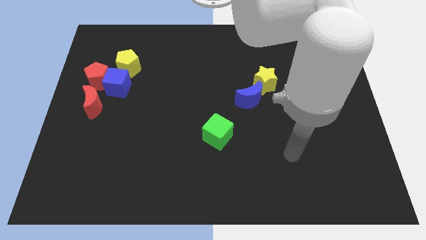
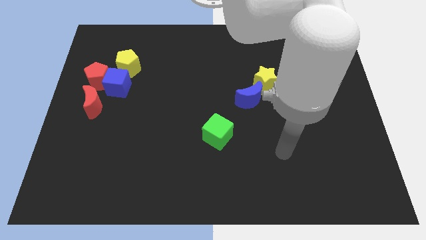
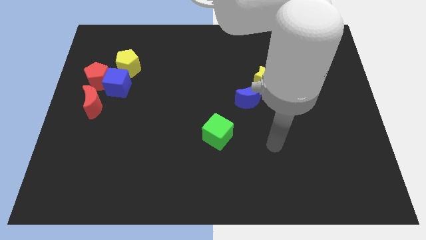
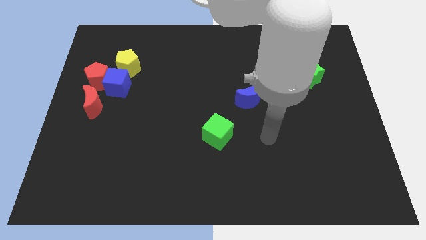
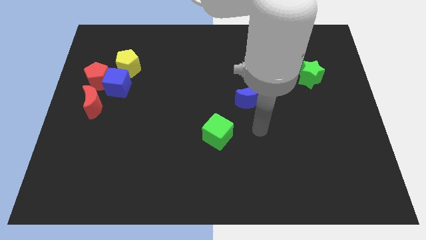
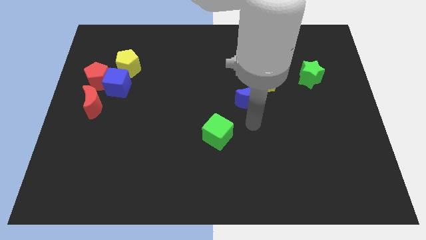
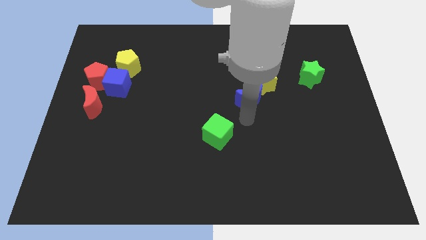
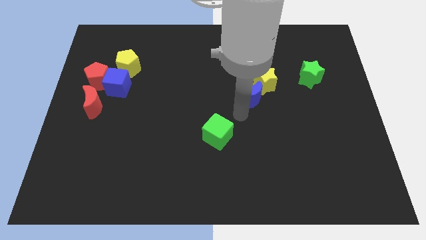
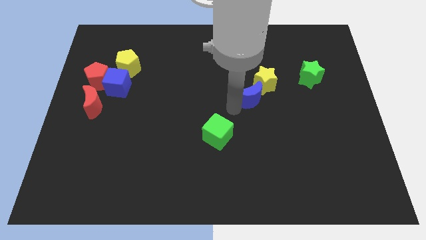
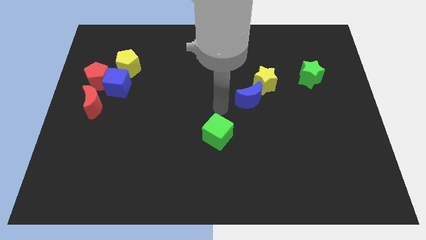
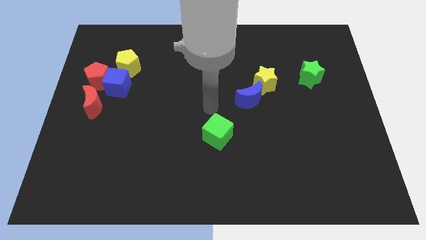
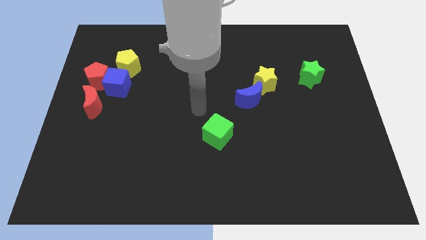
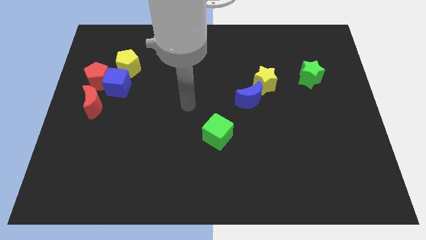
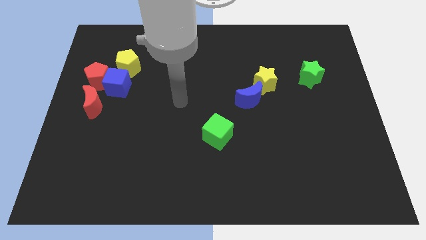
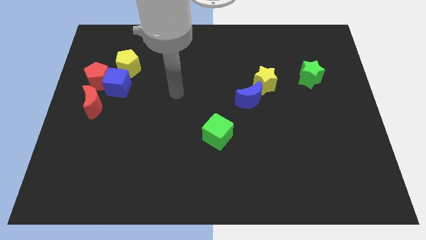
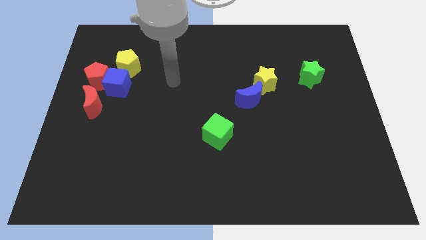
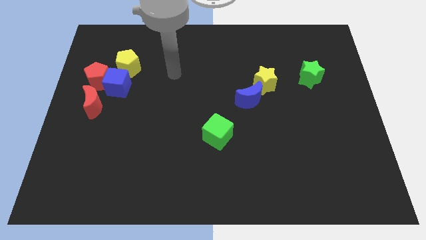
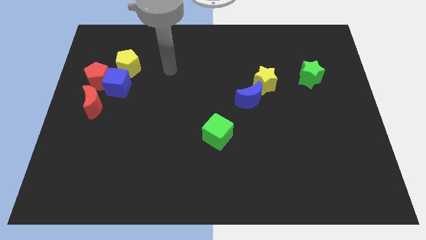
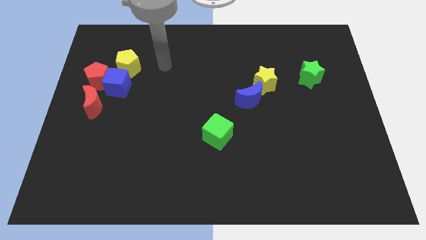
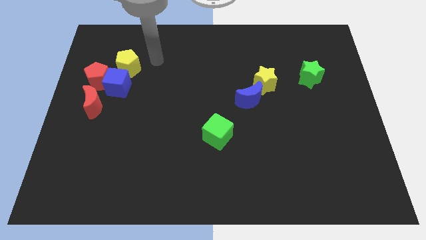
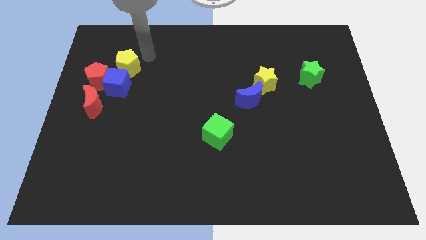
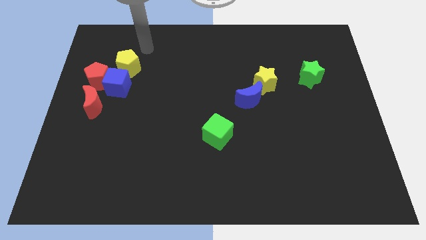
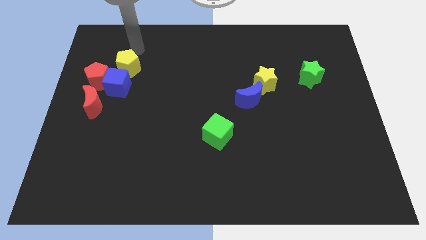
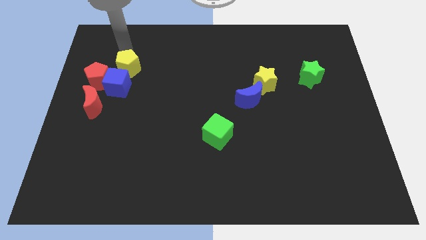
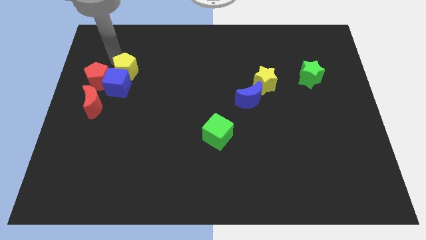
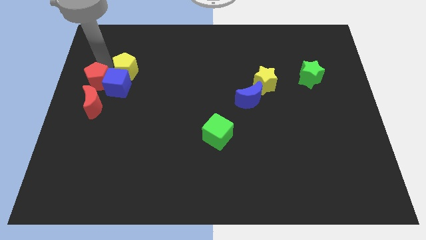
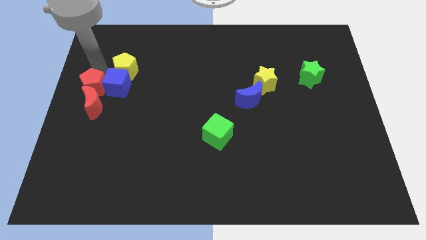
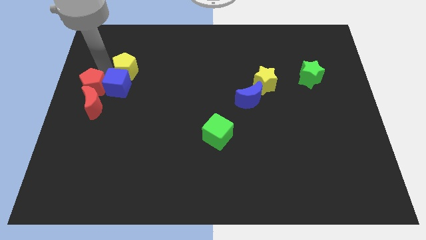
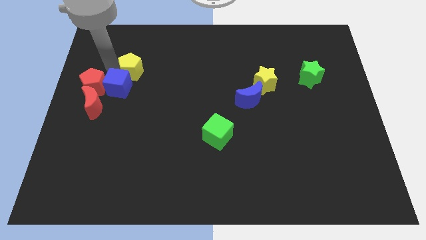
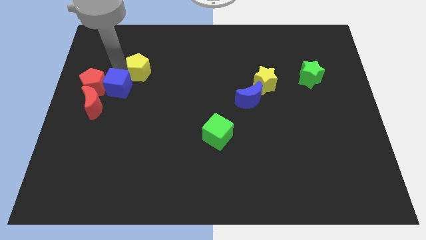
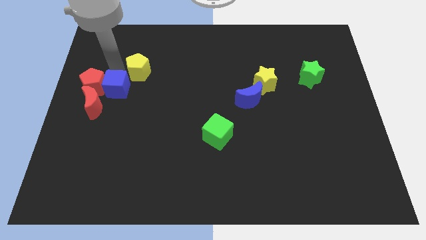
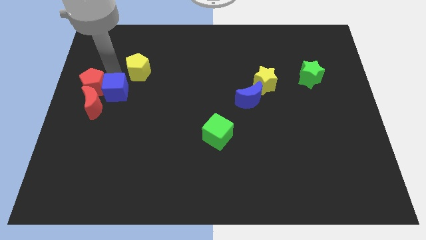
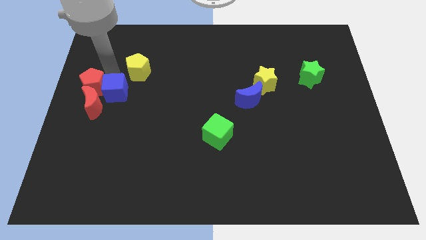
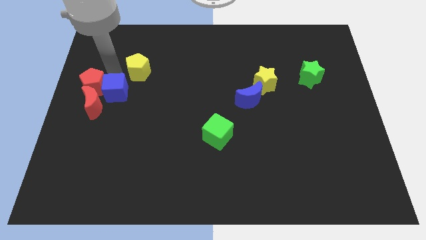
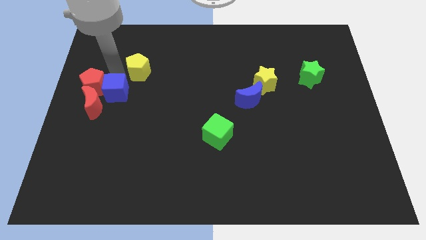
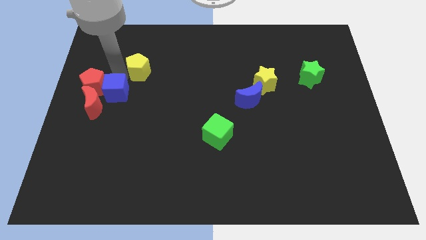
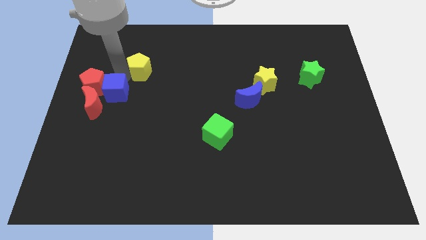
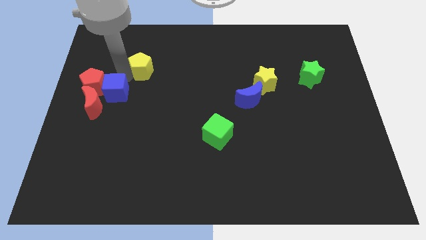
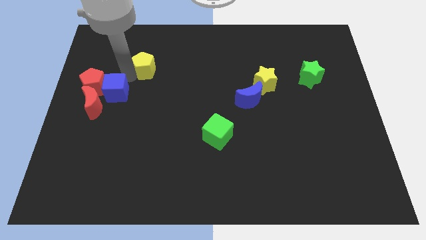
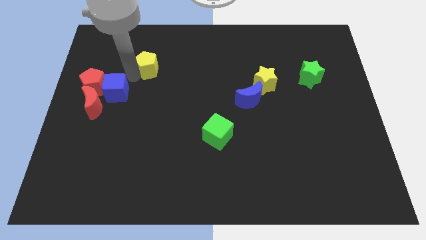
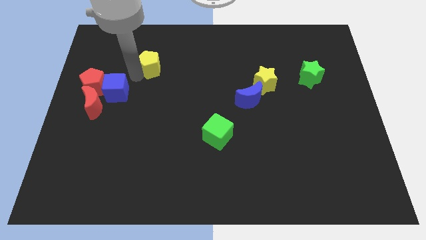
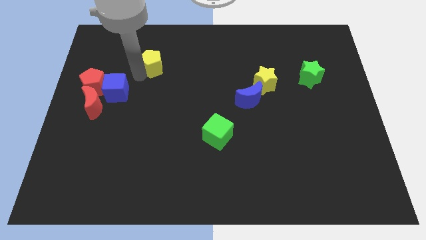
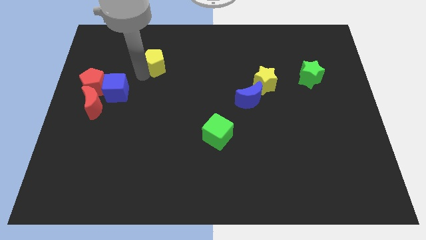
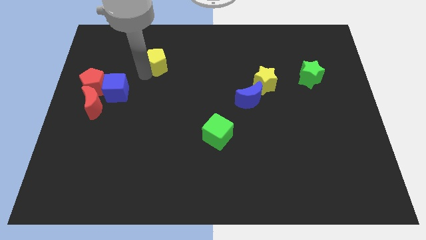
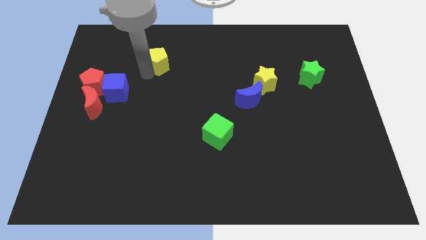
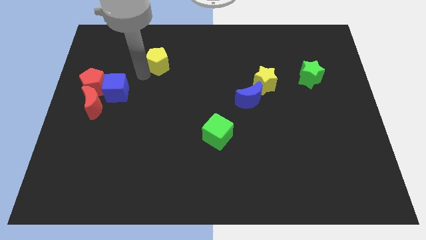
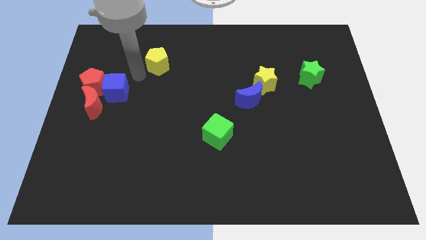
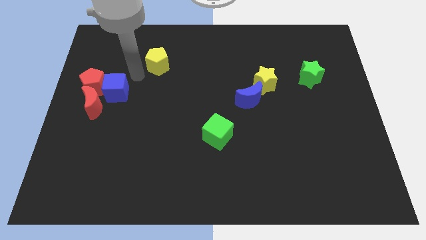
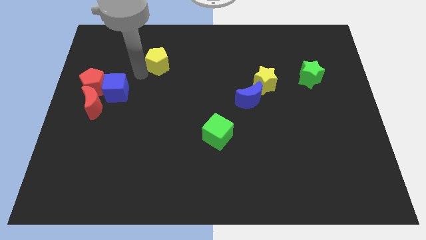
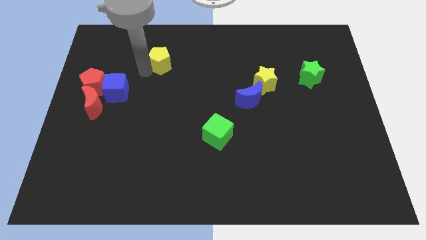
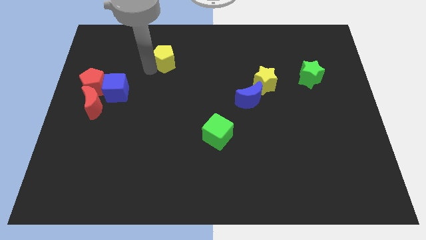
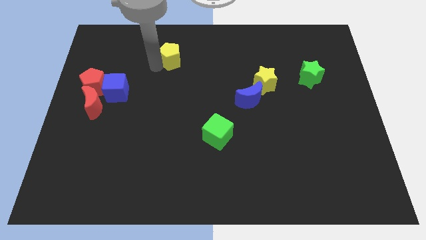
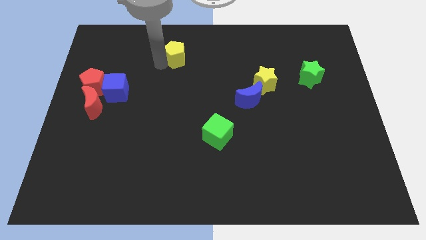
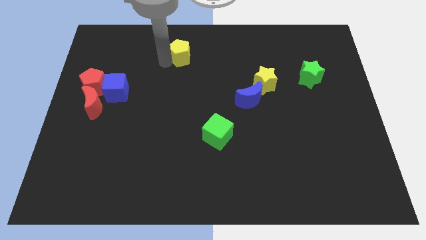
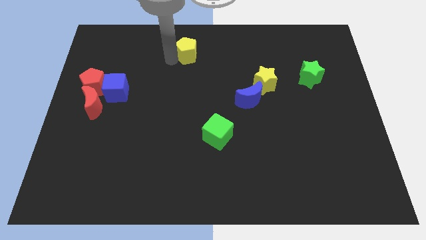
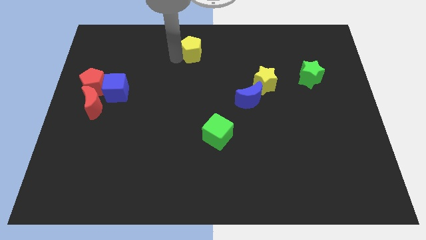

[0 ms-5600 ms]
move the yellow pentagon to the towards your base

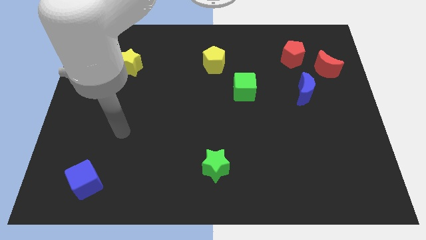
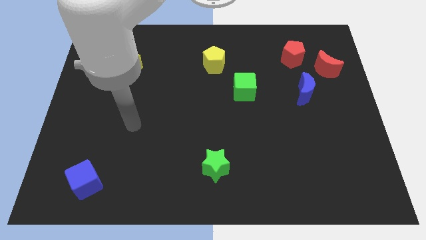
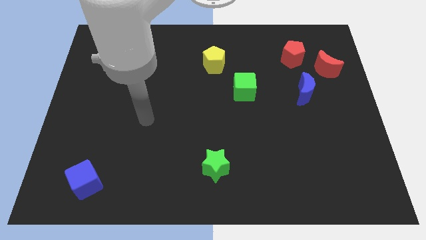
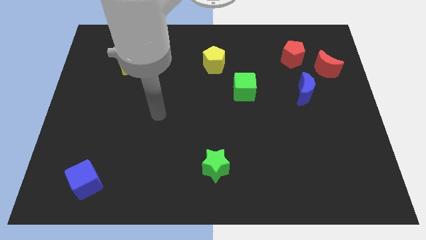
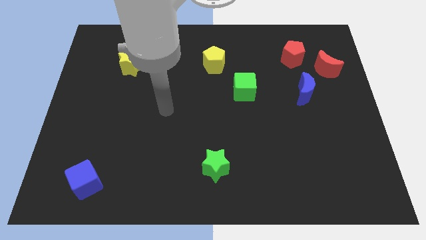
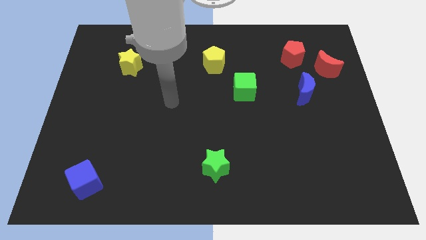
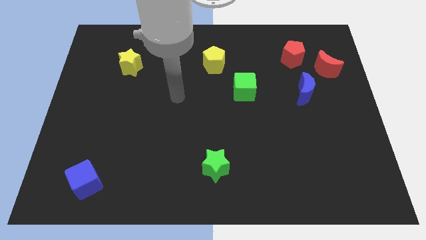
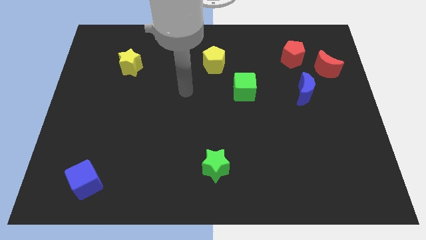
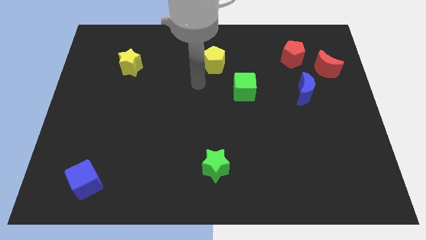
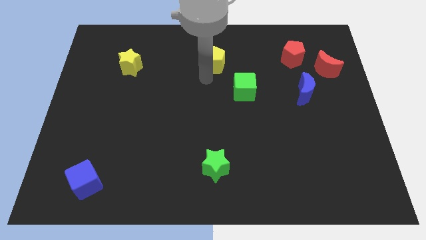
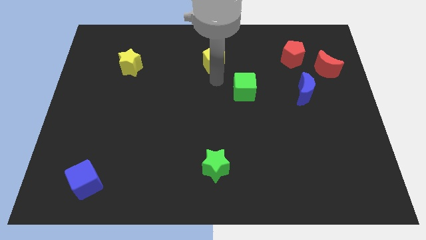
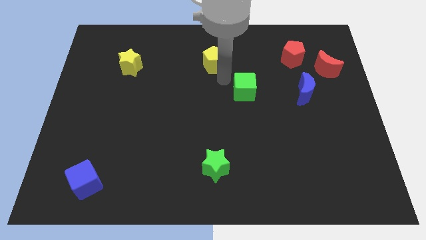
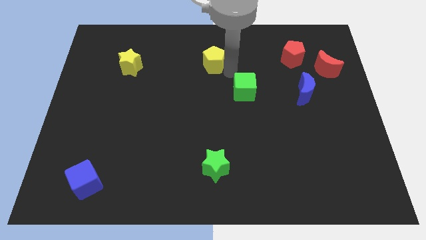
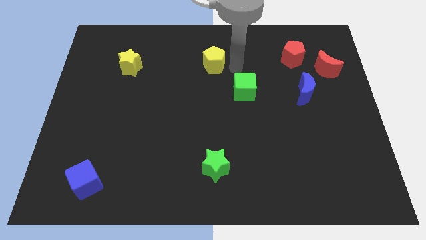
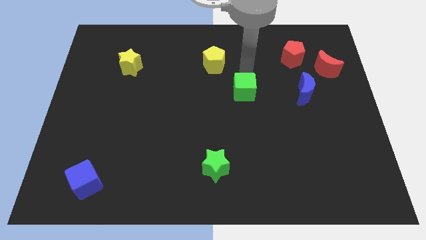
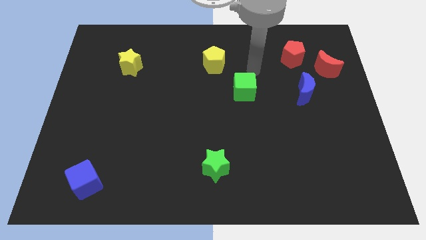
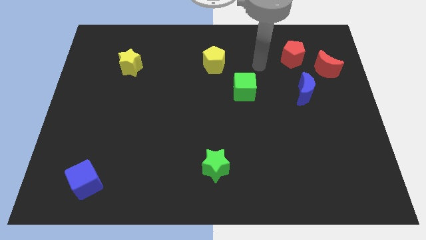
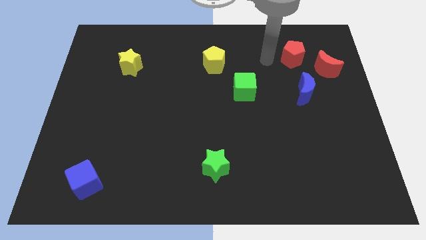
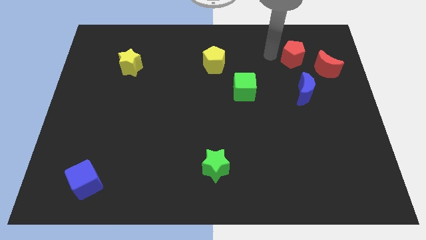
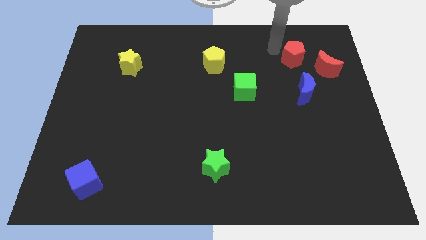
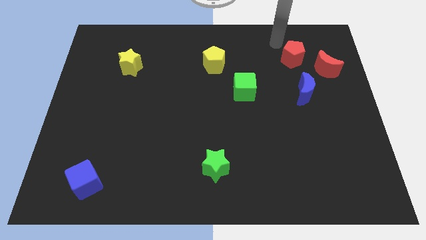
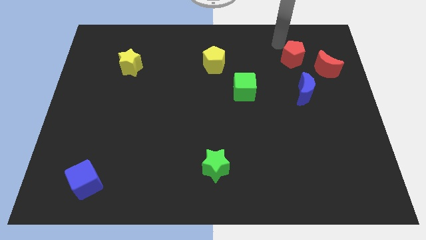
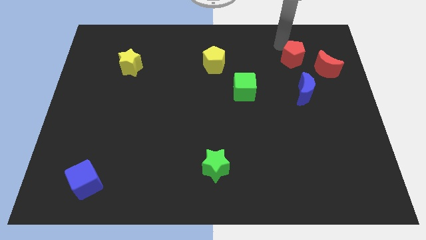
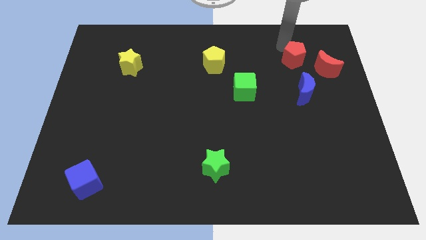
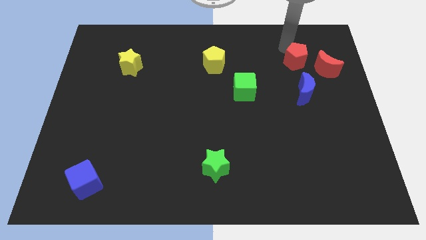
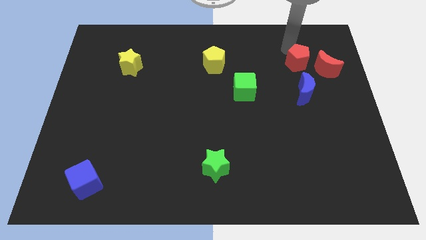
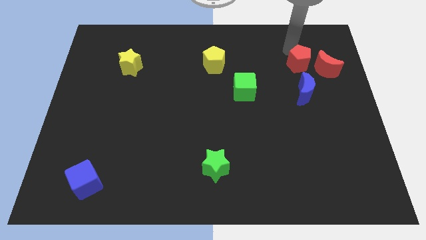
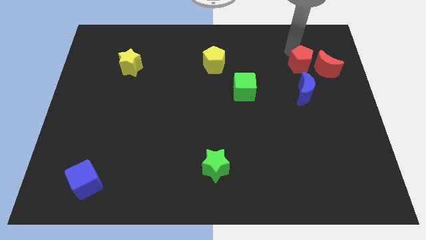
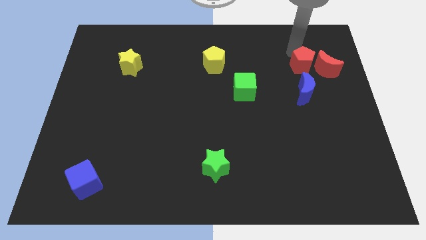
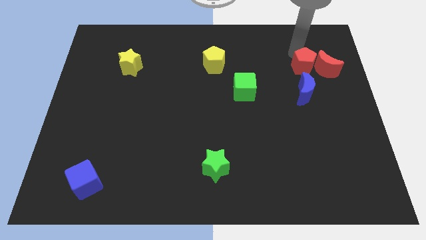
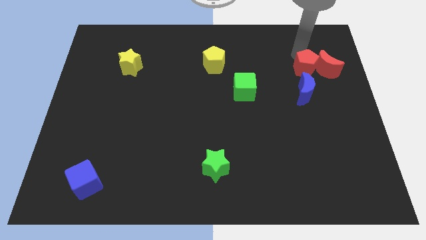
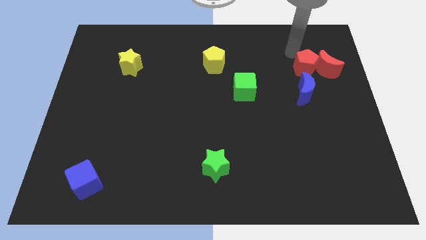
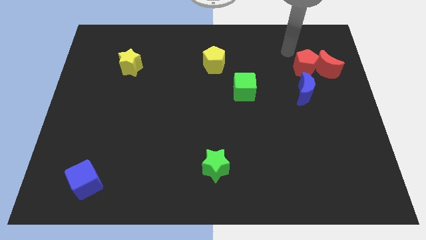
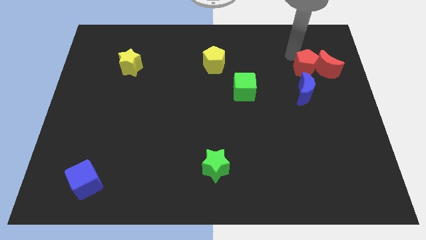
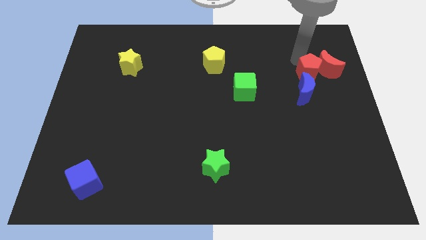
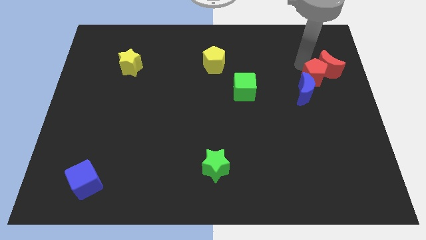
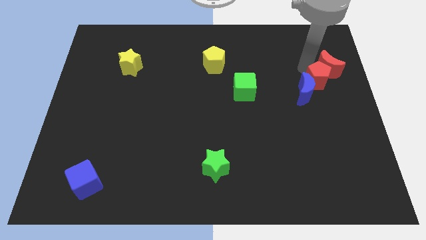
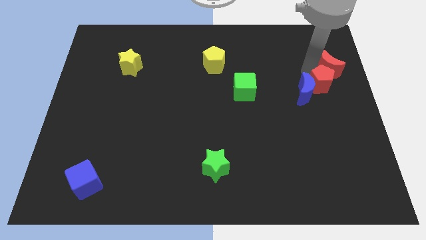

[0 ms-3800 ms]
push the red pentagon to the right side
